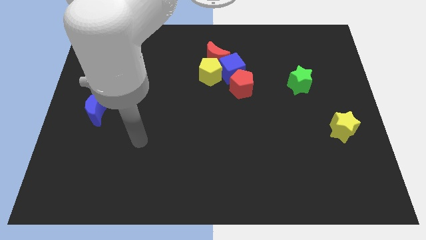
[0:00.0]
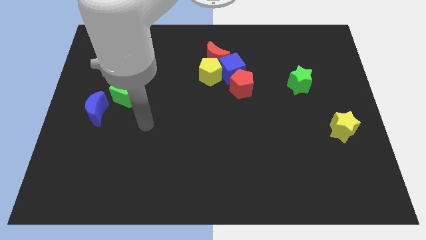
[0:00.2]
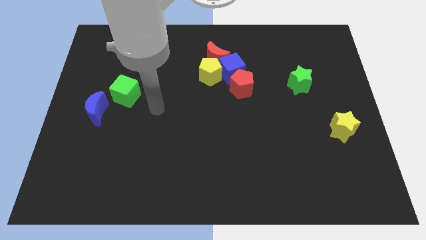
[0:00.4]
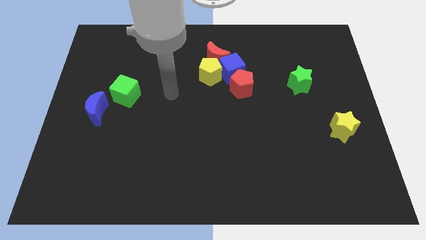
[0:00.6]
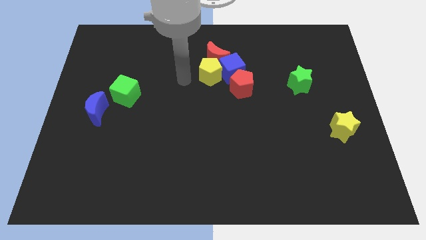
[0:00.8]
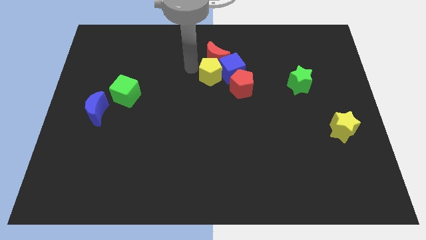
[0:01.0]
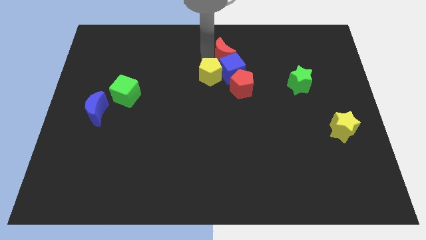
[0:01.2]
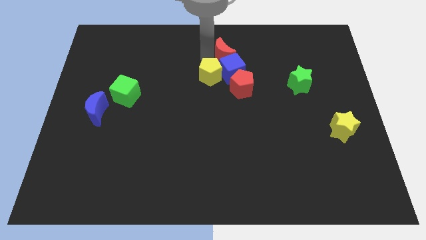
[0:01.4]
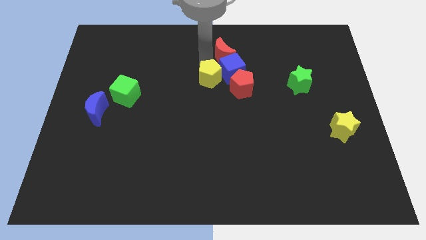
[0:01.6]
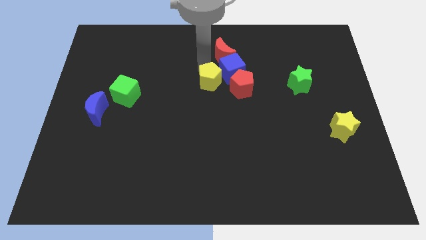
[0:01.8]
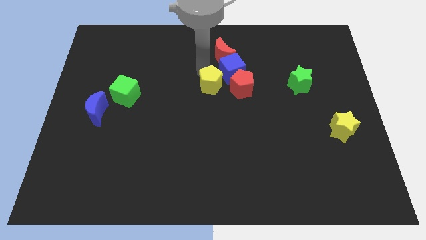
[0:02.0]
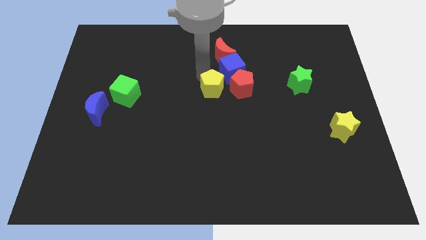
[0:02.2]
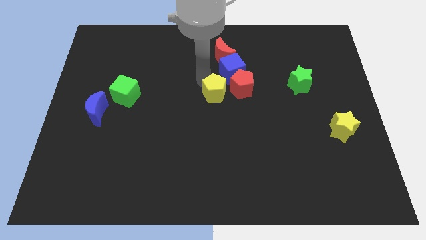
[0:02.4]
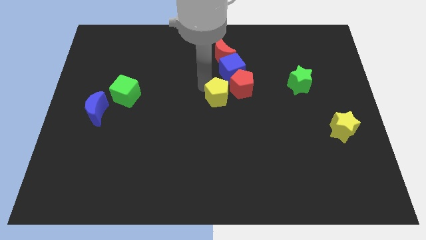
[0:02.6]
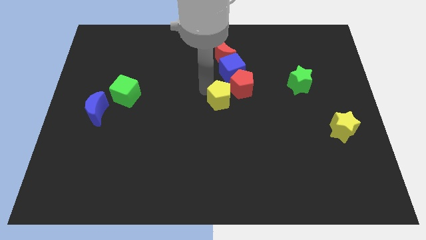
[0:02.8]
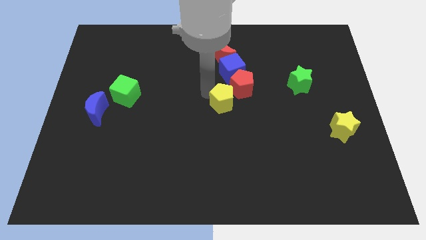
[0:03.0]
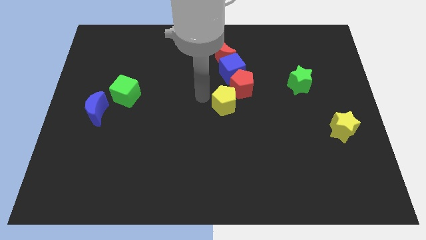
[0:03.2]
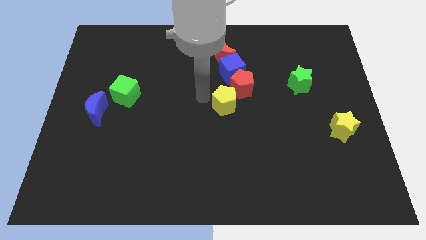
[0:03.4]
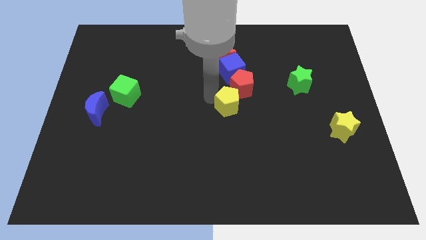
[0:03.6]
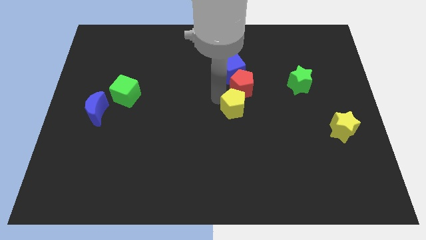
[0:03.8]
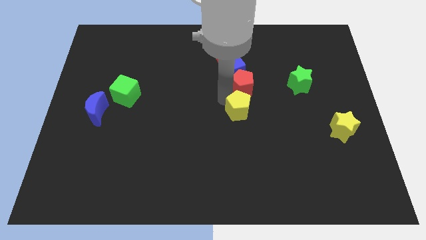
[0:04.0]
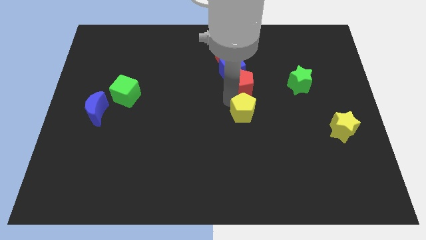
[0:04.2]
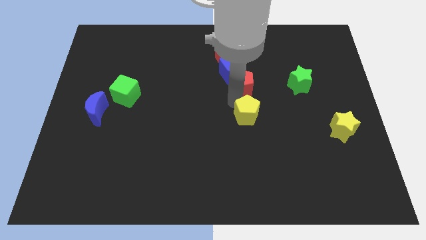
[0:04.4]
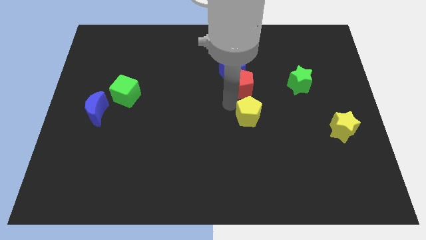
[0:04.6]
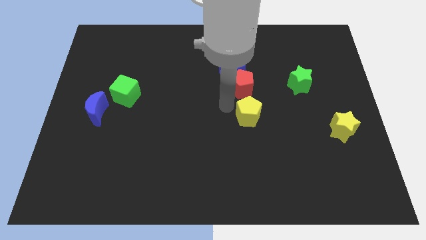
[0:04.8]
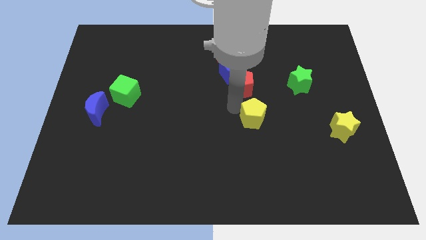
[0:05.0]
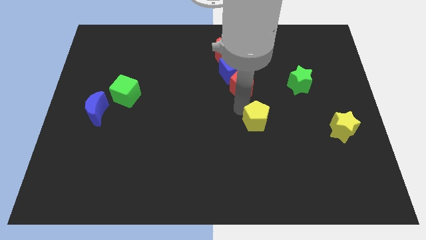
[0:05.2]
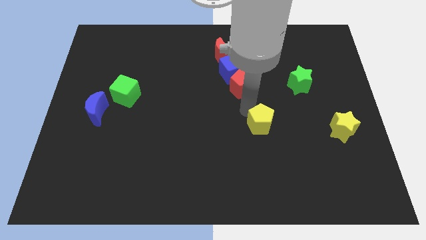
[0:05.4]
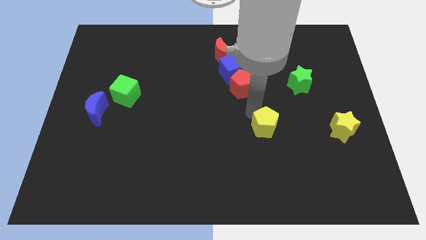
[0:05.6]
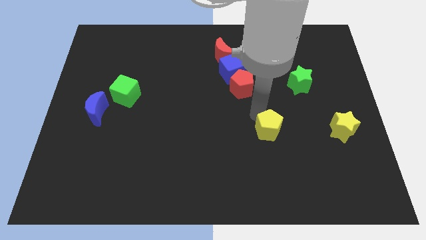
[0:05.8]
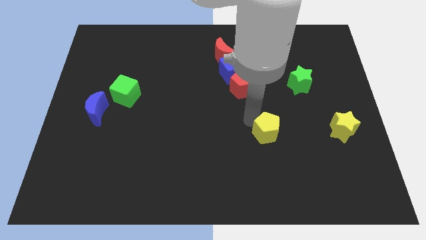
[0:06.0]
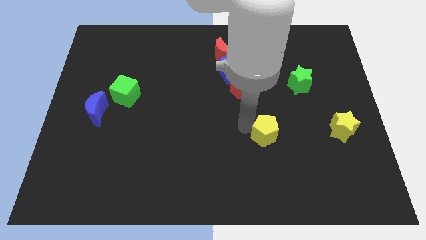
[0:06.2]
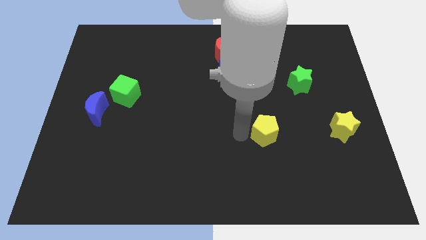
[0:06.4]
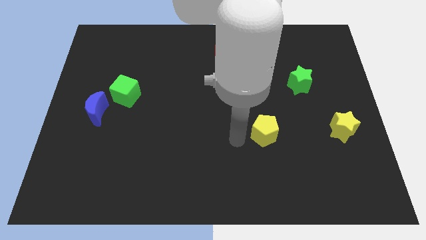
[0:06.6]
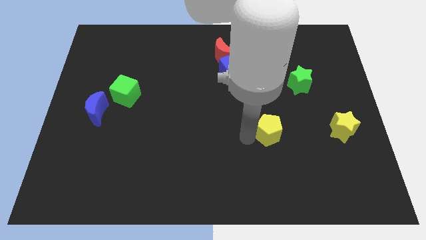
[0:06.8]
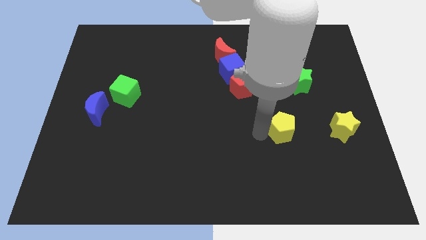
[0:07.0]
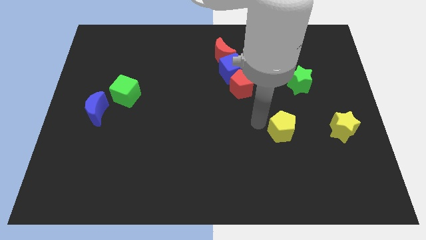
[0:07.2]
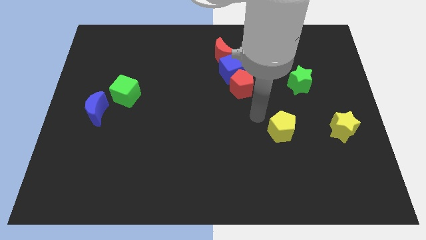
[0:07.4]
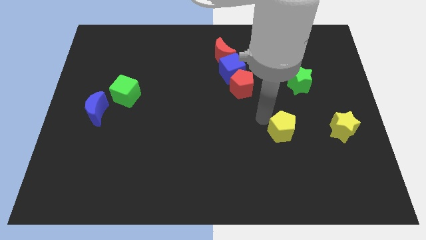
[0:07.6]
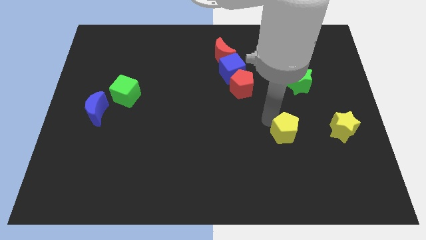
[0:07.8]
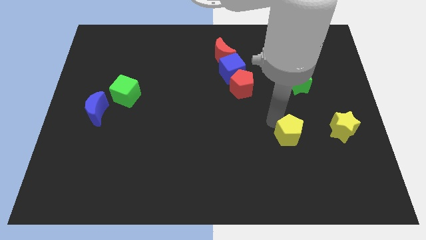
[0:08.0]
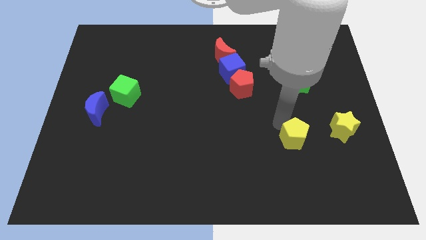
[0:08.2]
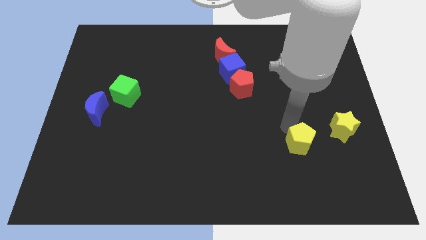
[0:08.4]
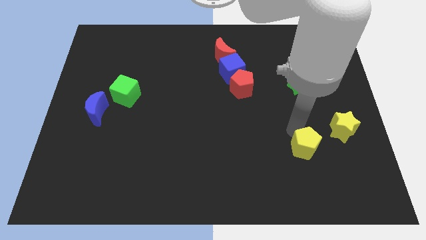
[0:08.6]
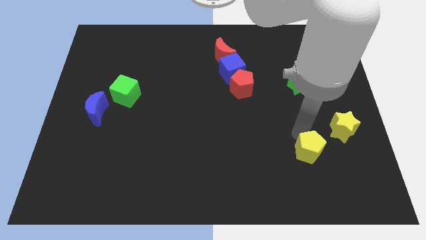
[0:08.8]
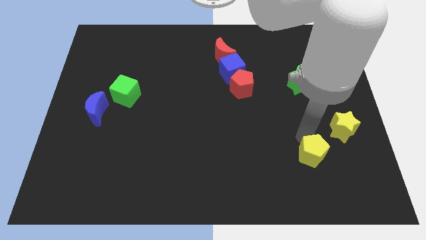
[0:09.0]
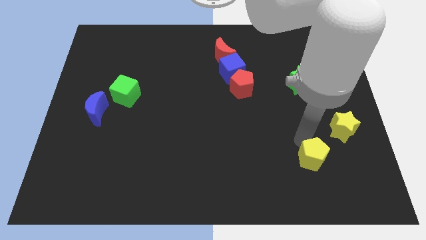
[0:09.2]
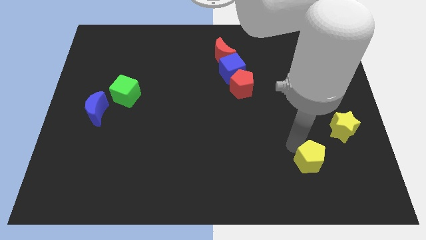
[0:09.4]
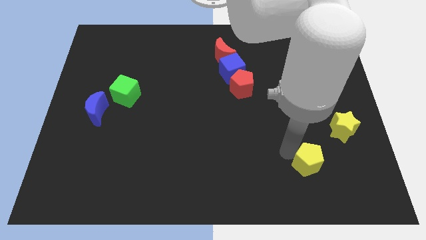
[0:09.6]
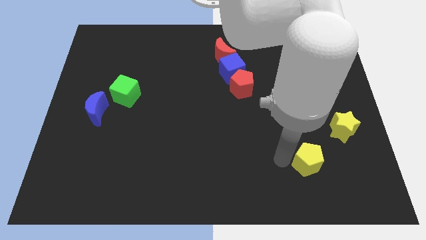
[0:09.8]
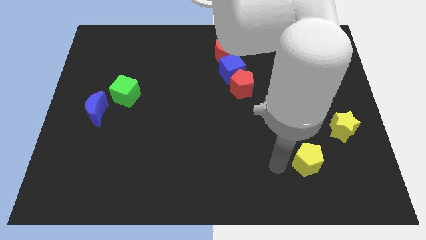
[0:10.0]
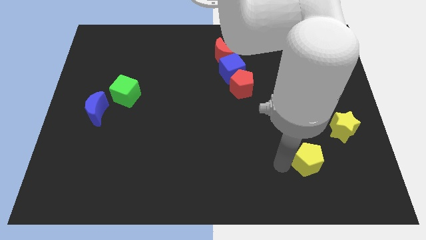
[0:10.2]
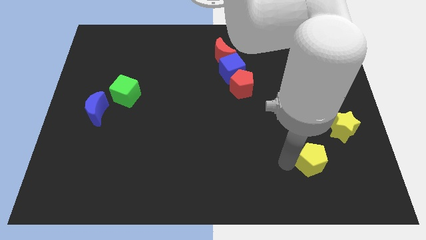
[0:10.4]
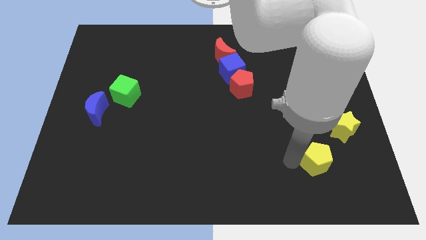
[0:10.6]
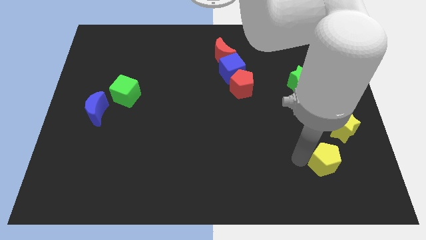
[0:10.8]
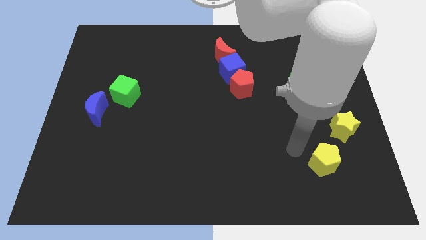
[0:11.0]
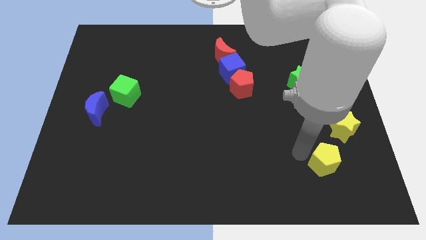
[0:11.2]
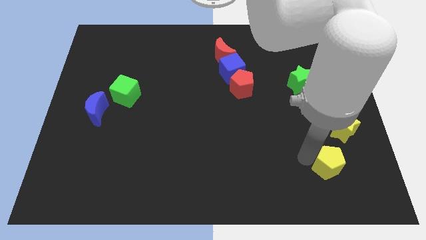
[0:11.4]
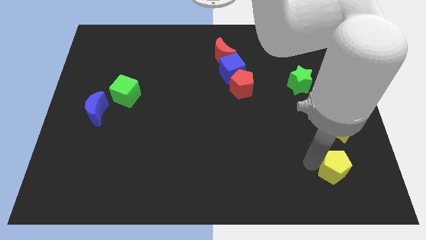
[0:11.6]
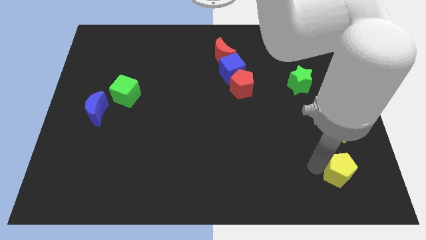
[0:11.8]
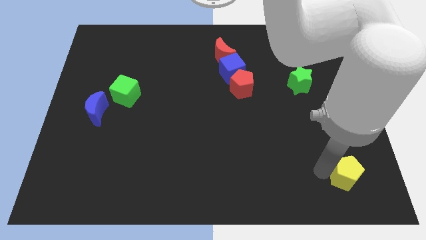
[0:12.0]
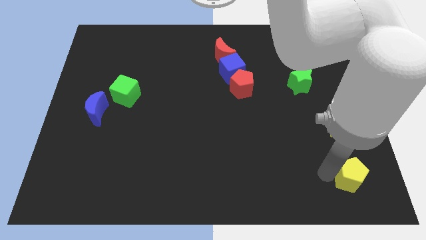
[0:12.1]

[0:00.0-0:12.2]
move the yellow pentagon to the bottom right corner
